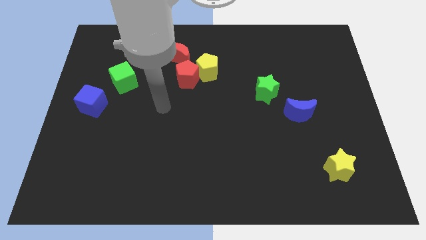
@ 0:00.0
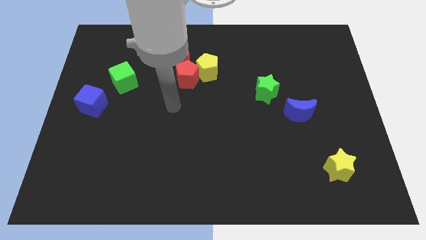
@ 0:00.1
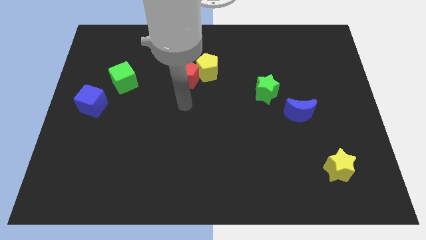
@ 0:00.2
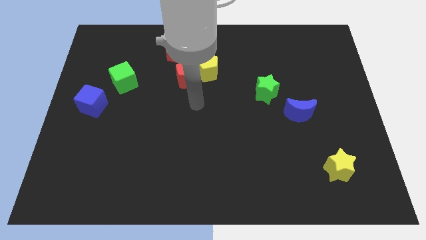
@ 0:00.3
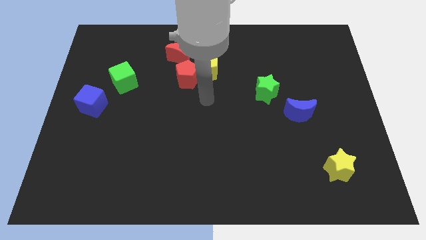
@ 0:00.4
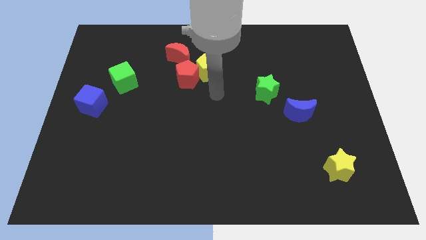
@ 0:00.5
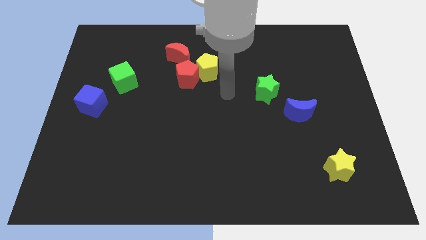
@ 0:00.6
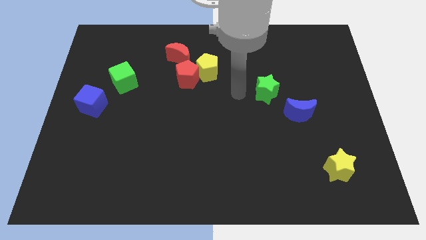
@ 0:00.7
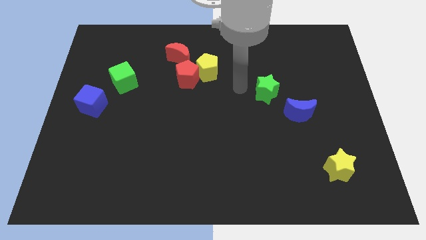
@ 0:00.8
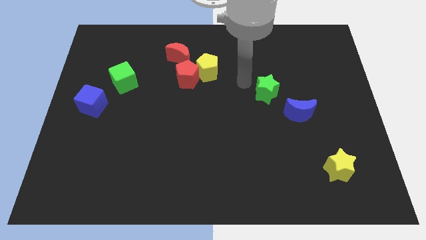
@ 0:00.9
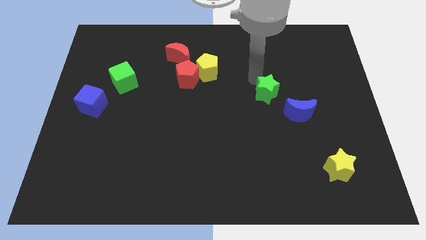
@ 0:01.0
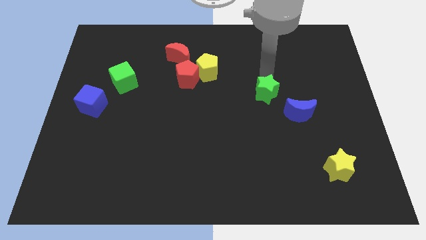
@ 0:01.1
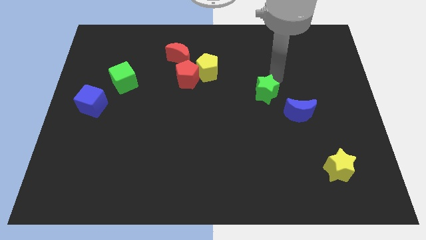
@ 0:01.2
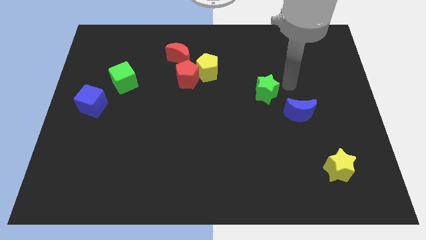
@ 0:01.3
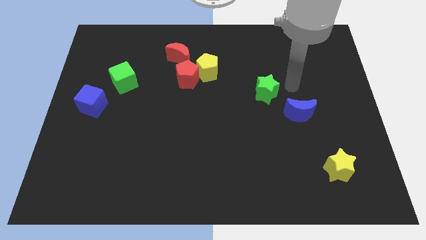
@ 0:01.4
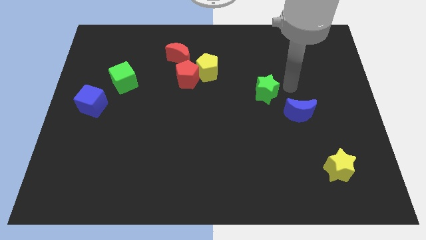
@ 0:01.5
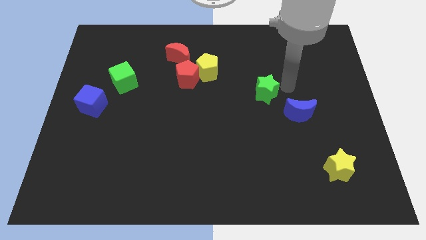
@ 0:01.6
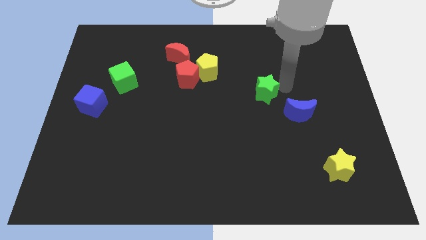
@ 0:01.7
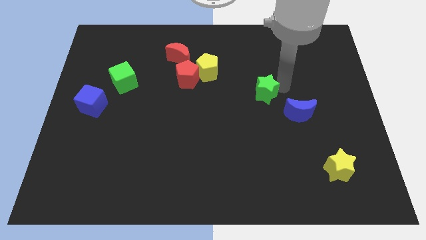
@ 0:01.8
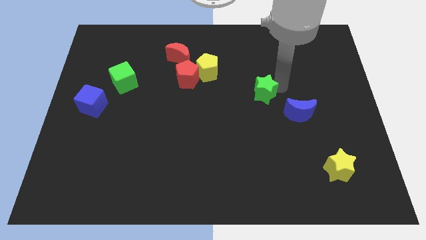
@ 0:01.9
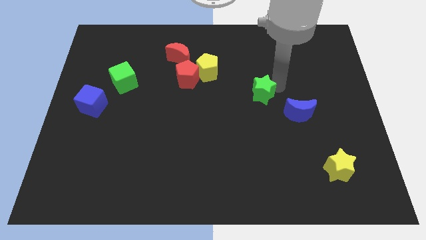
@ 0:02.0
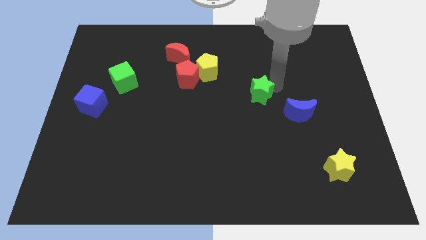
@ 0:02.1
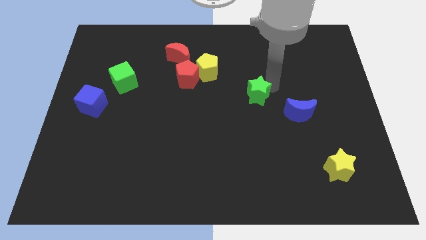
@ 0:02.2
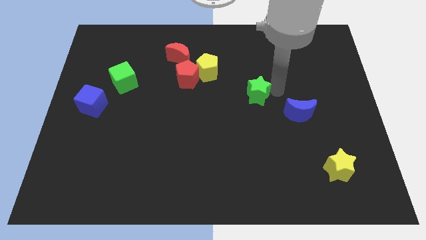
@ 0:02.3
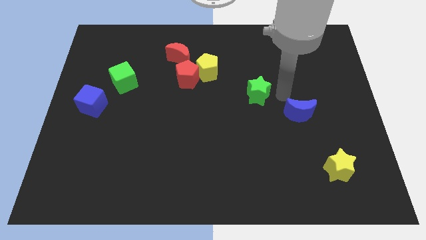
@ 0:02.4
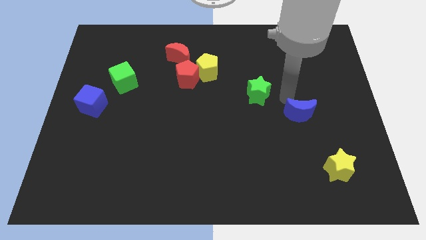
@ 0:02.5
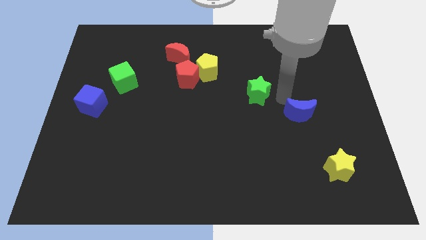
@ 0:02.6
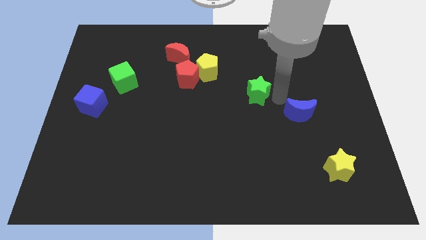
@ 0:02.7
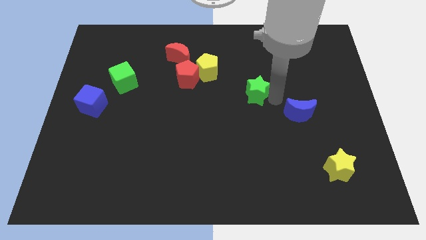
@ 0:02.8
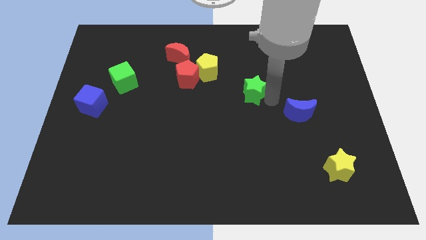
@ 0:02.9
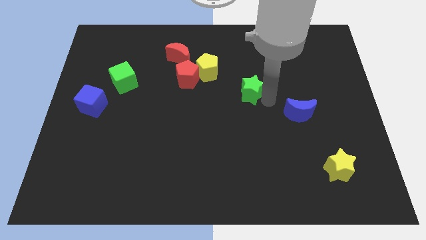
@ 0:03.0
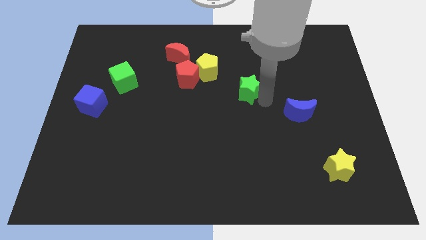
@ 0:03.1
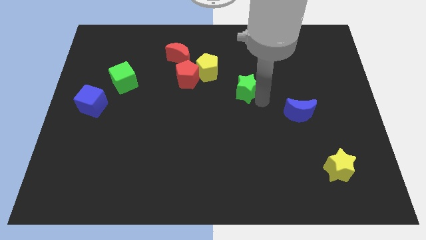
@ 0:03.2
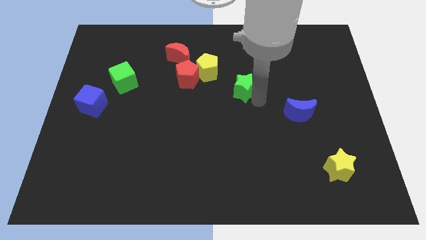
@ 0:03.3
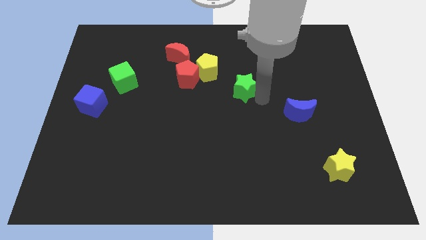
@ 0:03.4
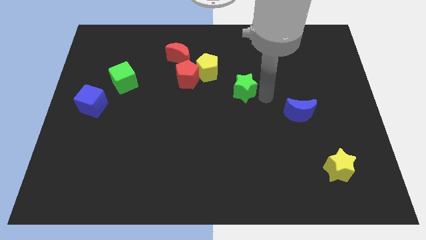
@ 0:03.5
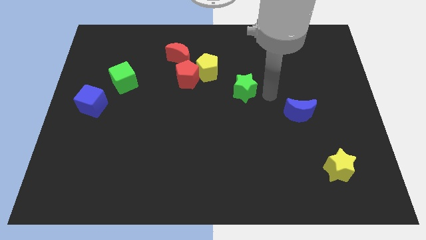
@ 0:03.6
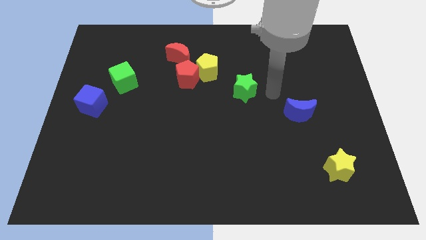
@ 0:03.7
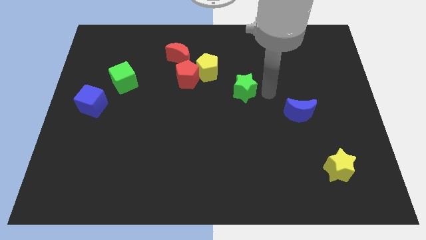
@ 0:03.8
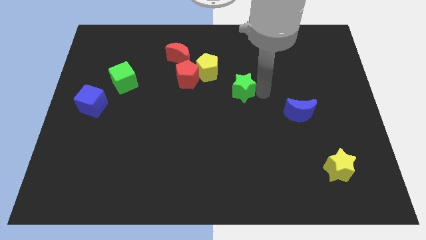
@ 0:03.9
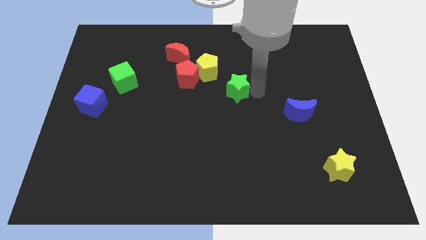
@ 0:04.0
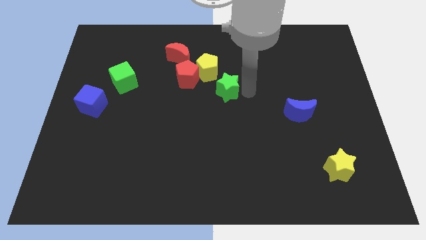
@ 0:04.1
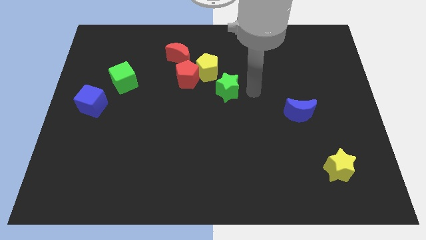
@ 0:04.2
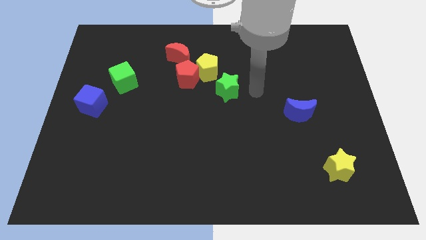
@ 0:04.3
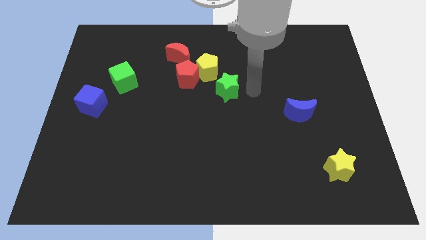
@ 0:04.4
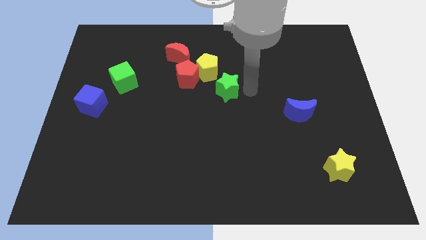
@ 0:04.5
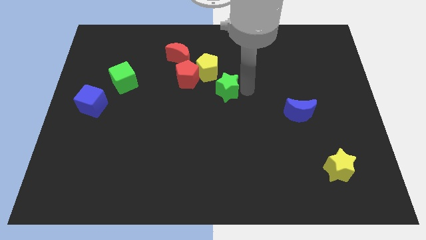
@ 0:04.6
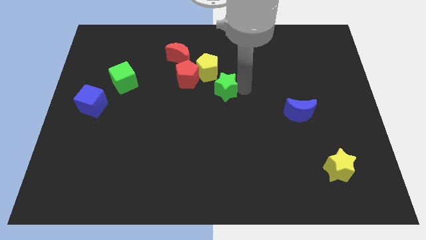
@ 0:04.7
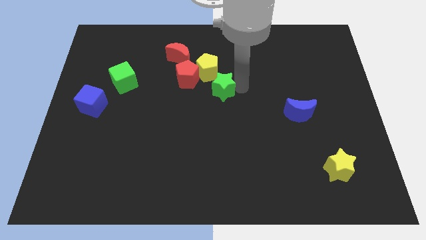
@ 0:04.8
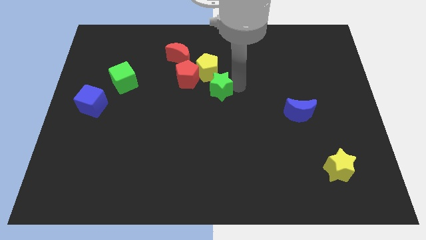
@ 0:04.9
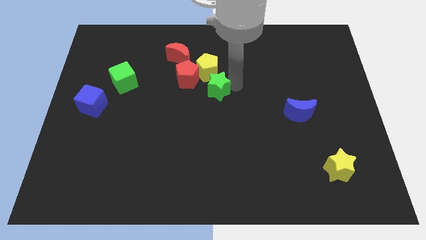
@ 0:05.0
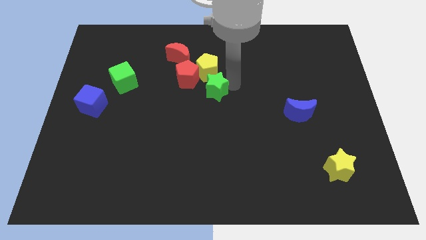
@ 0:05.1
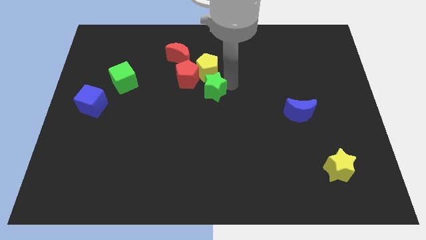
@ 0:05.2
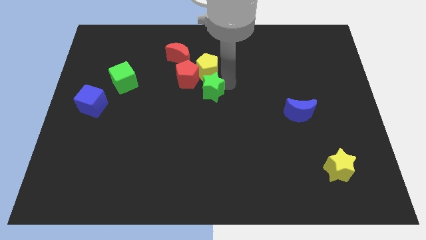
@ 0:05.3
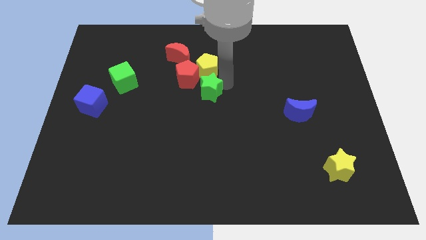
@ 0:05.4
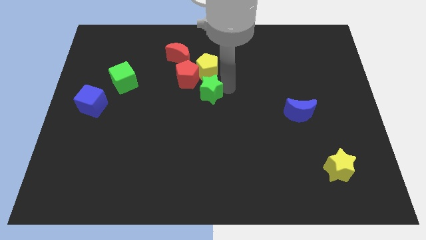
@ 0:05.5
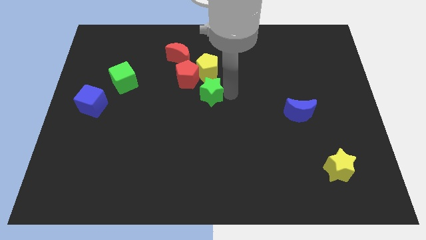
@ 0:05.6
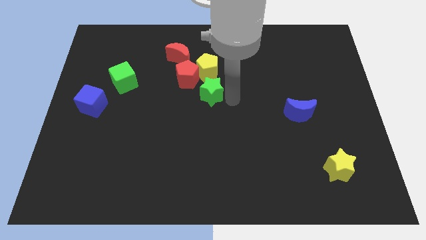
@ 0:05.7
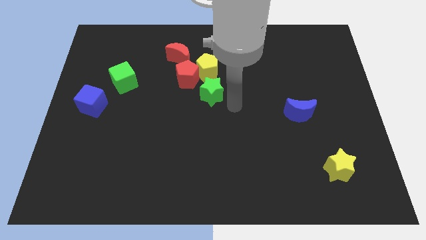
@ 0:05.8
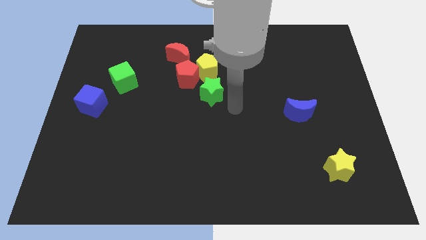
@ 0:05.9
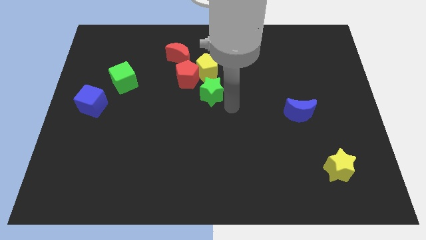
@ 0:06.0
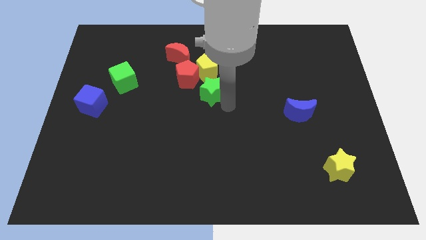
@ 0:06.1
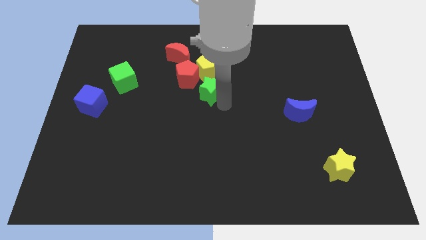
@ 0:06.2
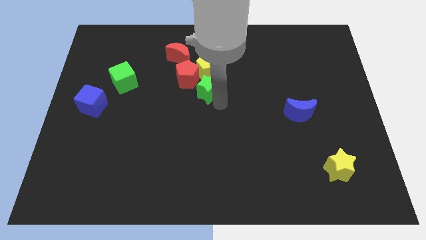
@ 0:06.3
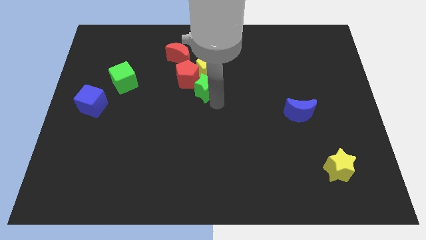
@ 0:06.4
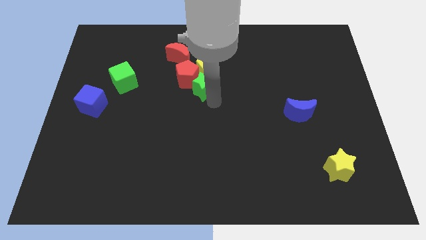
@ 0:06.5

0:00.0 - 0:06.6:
slide the green star next to the red pentagon
